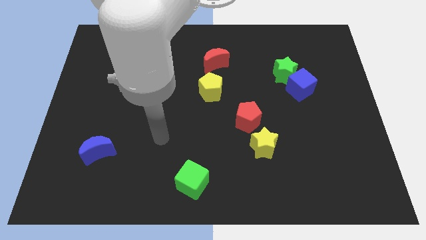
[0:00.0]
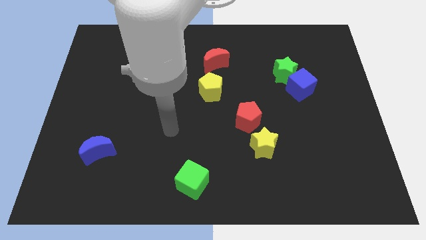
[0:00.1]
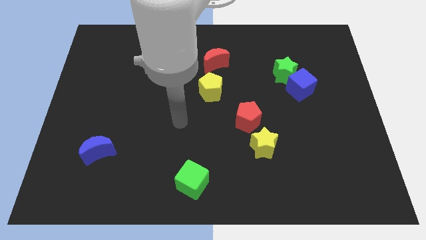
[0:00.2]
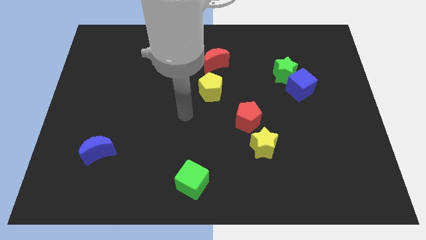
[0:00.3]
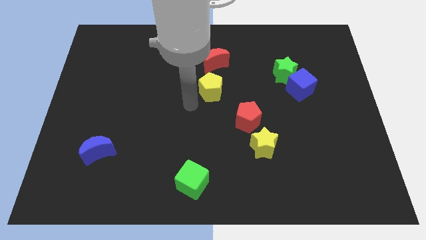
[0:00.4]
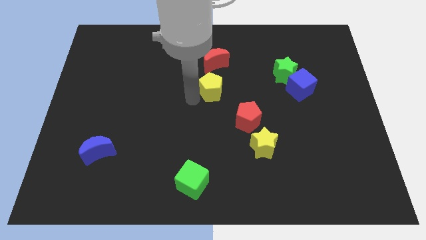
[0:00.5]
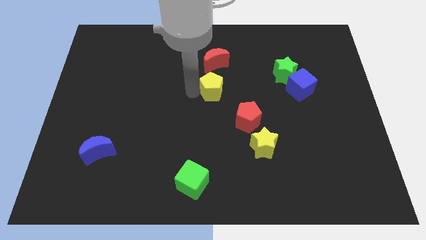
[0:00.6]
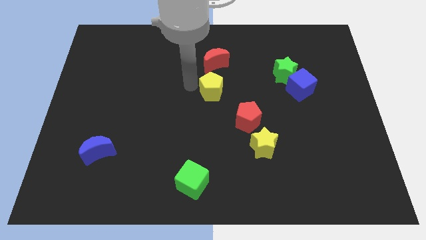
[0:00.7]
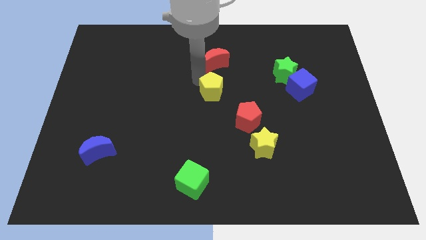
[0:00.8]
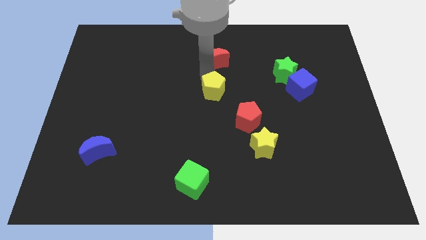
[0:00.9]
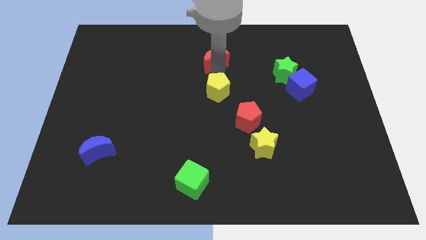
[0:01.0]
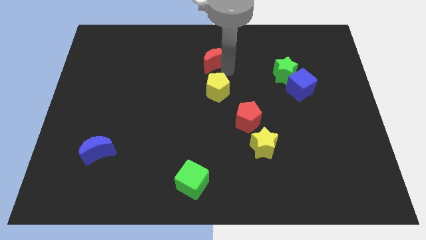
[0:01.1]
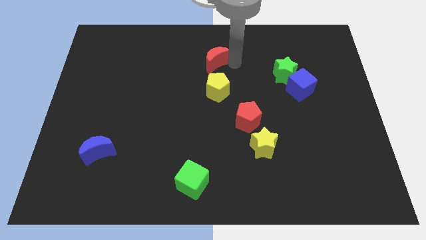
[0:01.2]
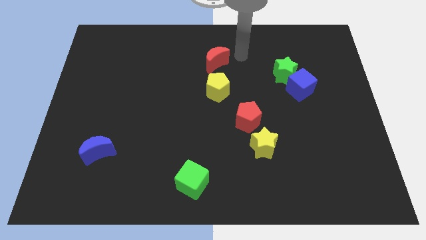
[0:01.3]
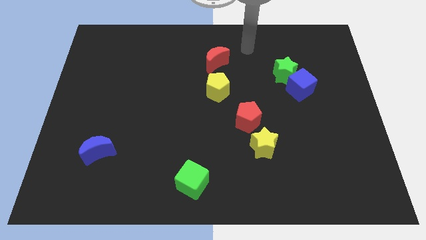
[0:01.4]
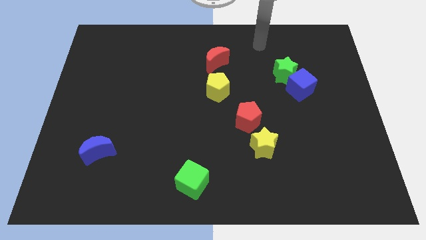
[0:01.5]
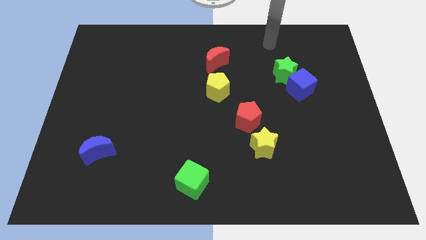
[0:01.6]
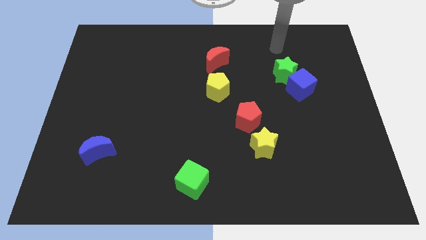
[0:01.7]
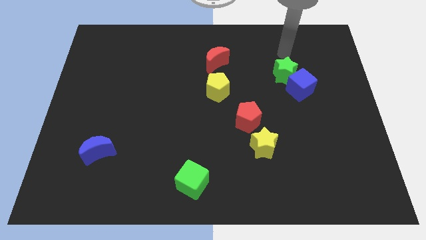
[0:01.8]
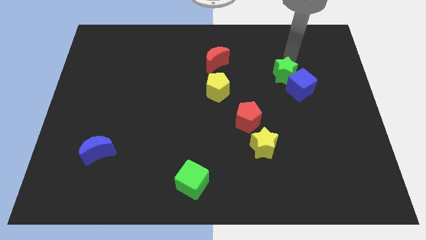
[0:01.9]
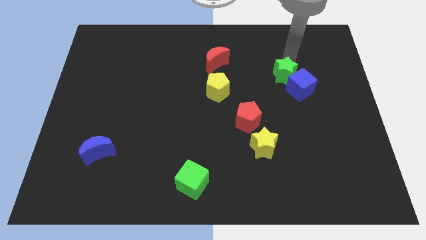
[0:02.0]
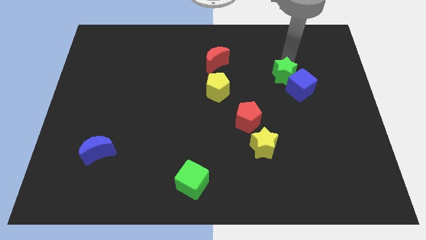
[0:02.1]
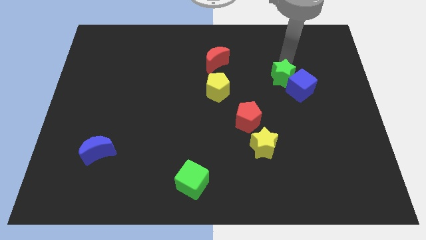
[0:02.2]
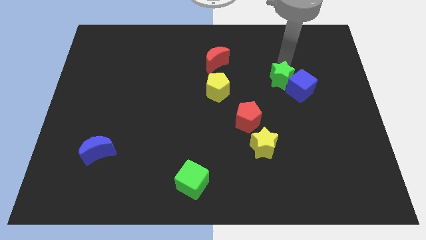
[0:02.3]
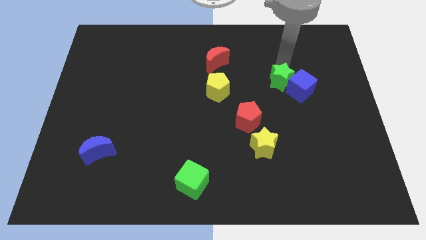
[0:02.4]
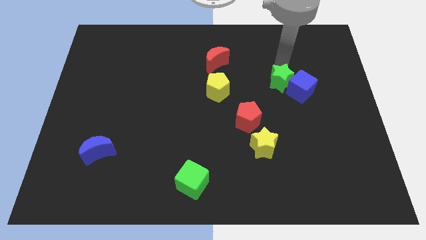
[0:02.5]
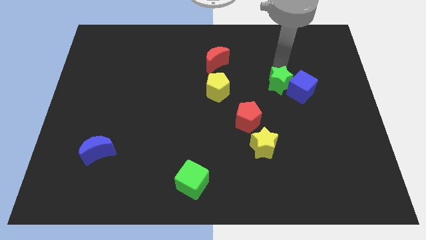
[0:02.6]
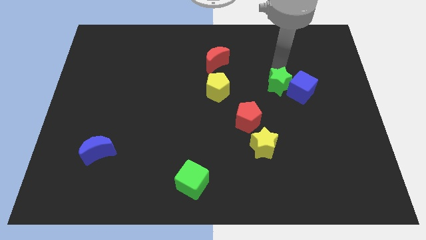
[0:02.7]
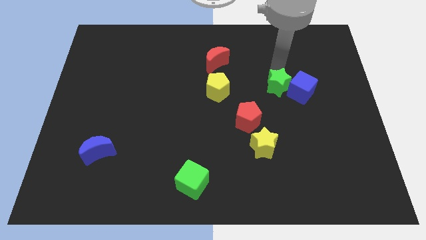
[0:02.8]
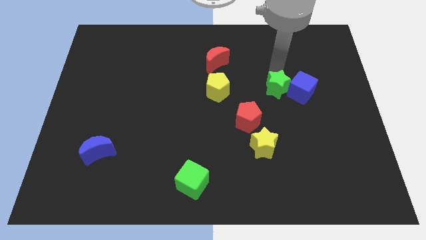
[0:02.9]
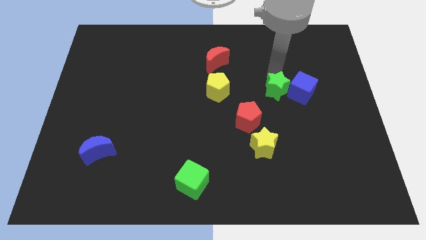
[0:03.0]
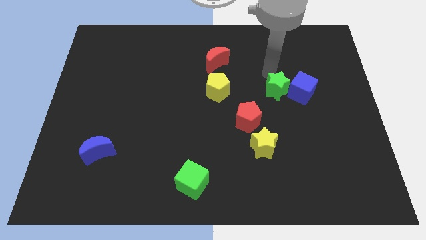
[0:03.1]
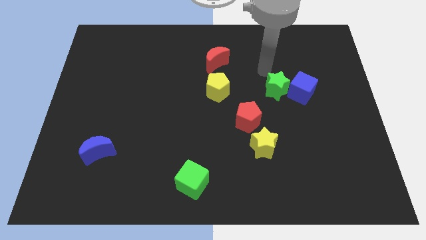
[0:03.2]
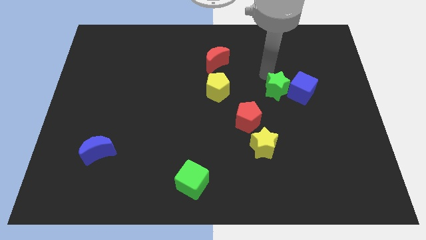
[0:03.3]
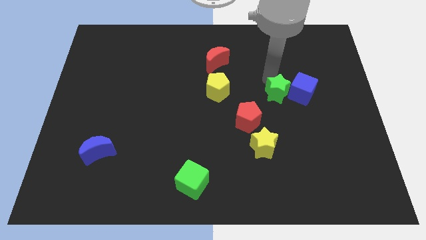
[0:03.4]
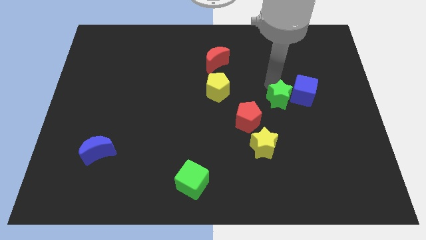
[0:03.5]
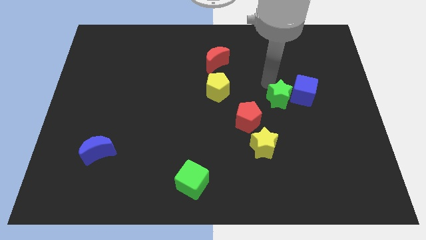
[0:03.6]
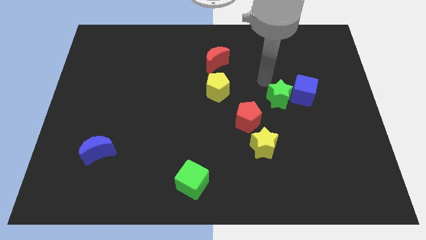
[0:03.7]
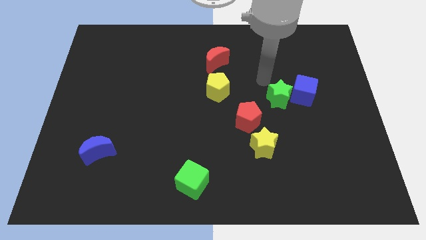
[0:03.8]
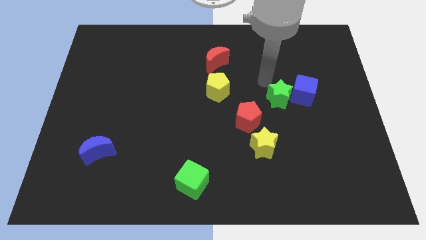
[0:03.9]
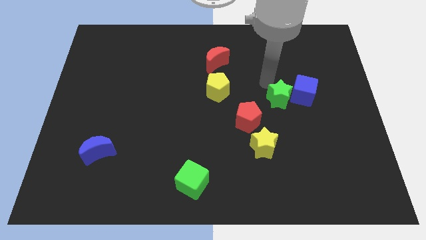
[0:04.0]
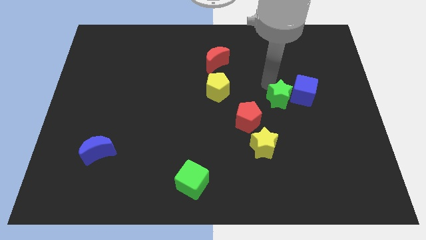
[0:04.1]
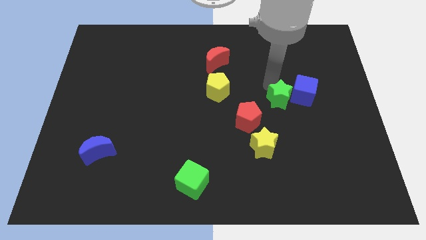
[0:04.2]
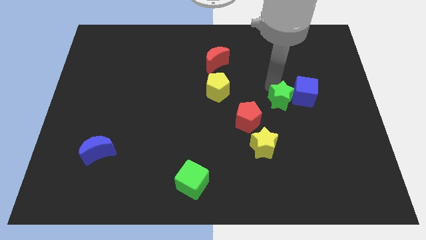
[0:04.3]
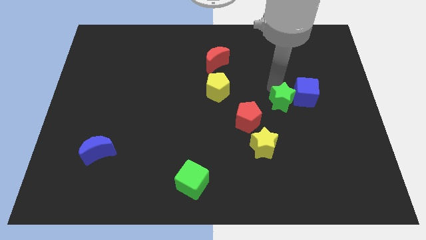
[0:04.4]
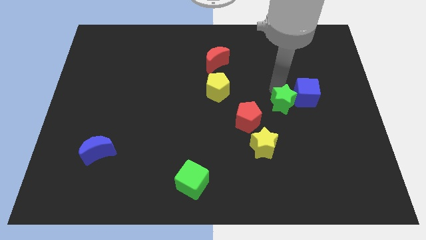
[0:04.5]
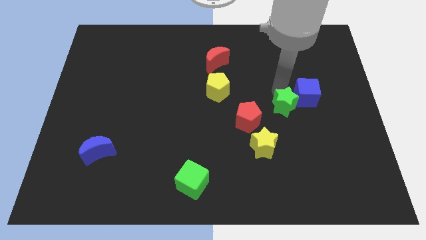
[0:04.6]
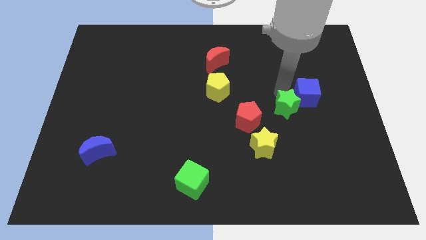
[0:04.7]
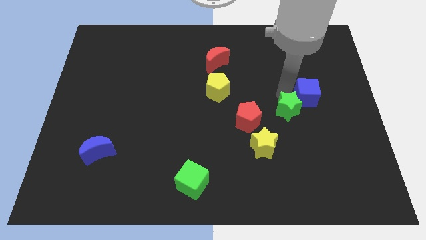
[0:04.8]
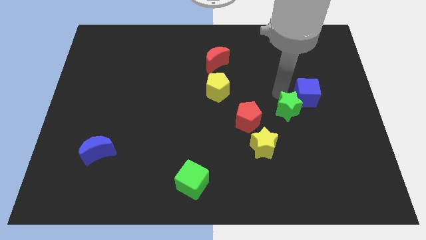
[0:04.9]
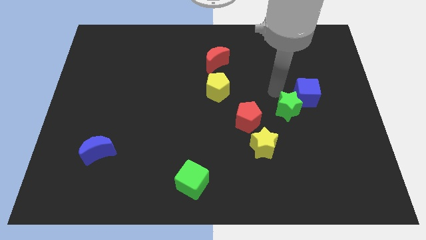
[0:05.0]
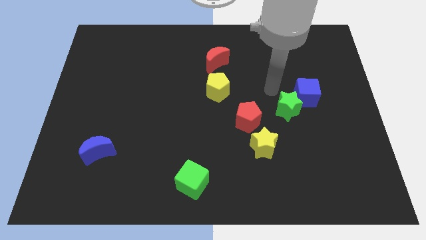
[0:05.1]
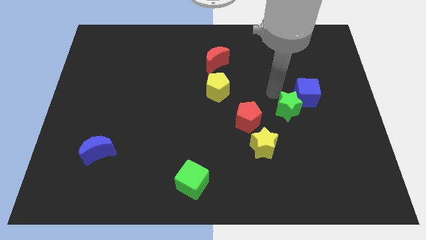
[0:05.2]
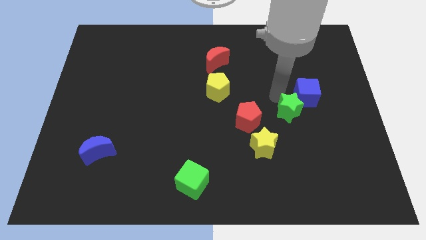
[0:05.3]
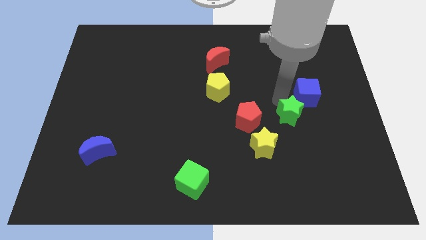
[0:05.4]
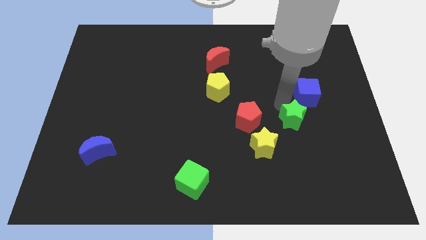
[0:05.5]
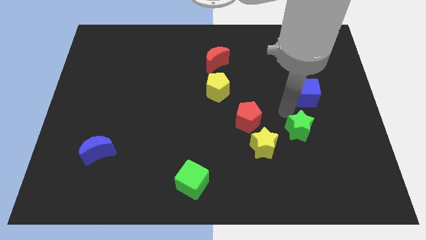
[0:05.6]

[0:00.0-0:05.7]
put the green star right of the yellow star

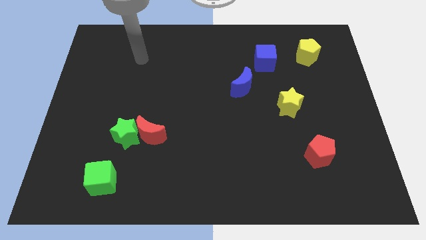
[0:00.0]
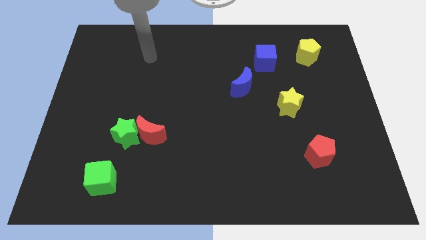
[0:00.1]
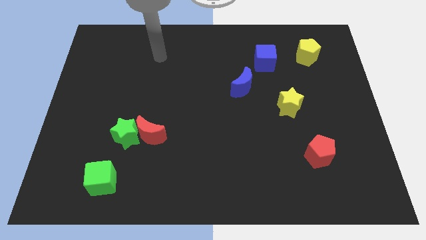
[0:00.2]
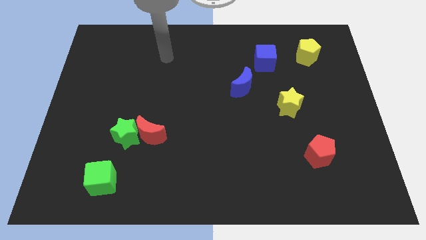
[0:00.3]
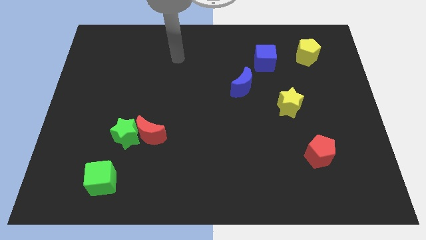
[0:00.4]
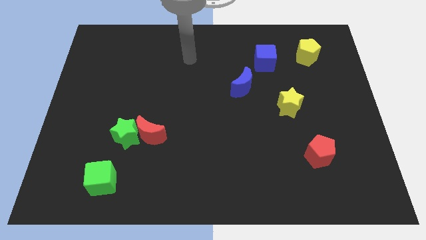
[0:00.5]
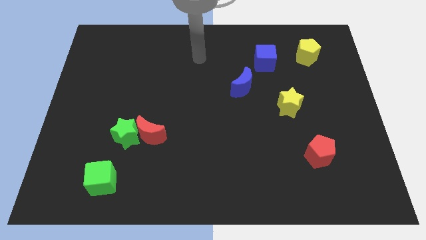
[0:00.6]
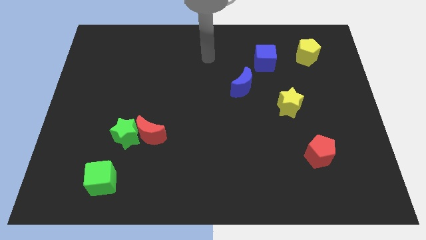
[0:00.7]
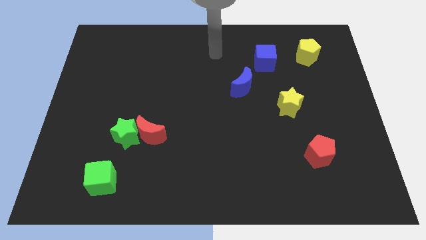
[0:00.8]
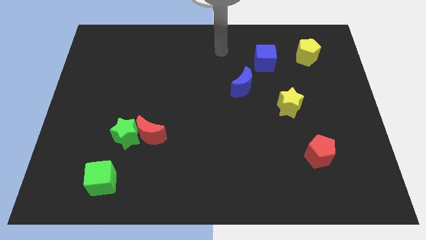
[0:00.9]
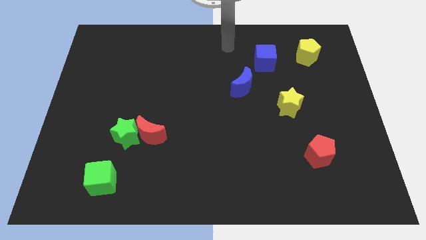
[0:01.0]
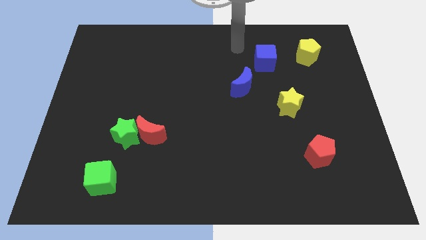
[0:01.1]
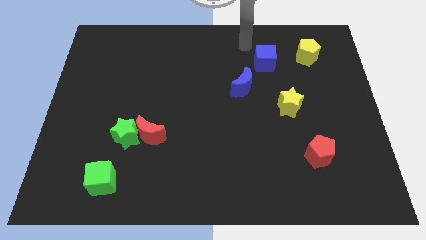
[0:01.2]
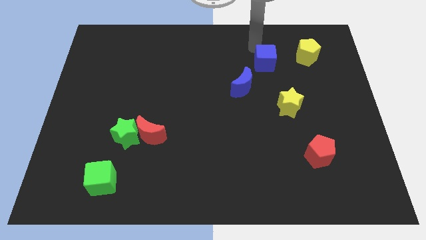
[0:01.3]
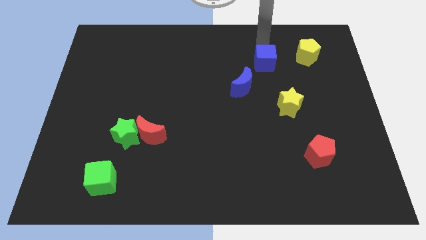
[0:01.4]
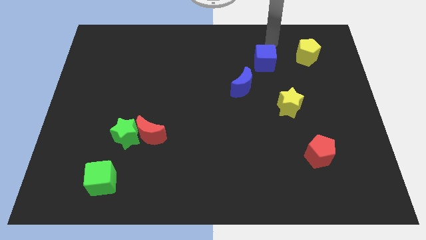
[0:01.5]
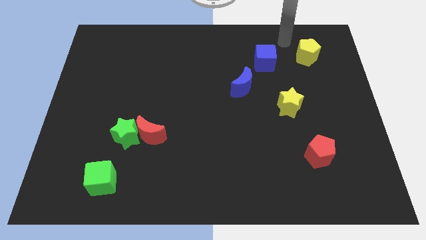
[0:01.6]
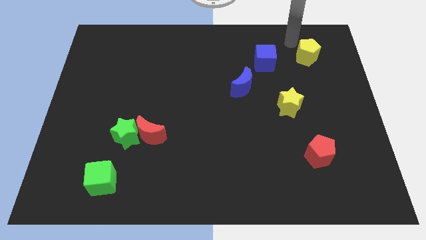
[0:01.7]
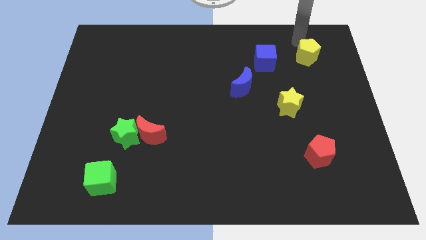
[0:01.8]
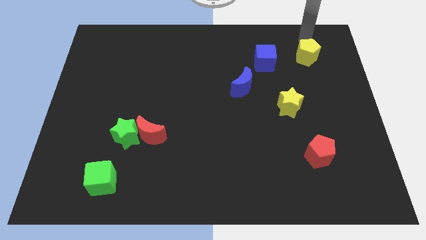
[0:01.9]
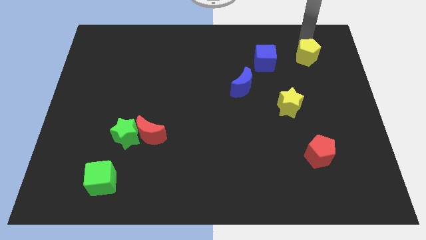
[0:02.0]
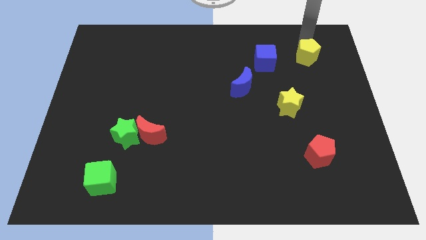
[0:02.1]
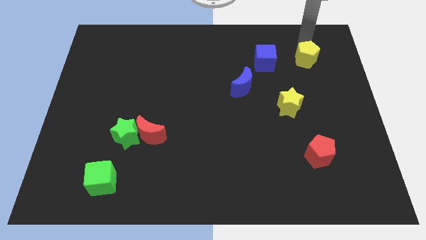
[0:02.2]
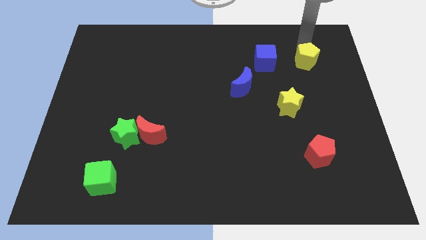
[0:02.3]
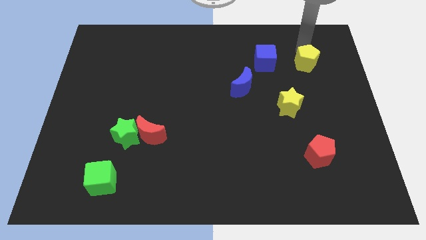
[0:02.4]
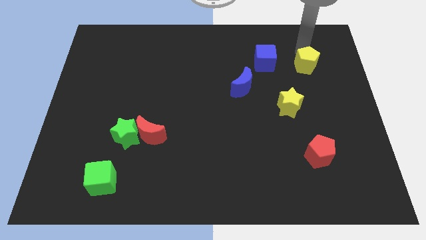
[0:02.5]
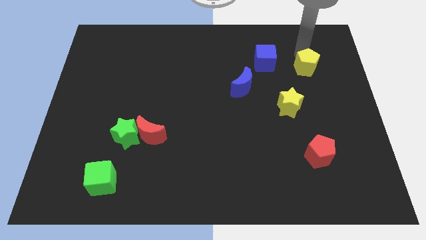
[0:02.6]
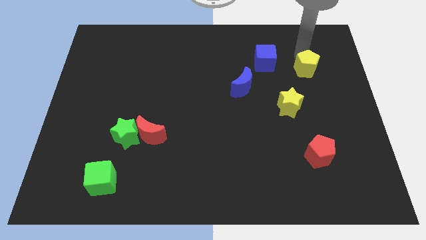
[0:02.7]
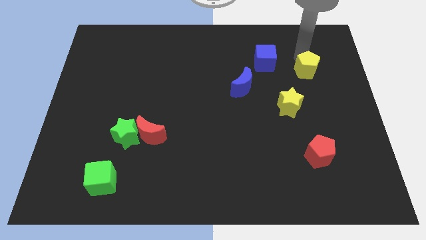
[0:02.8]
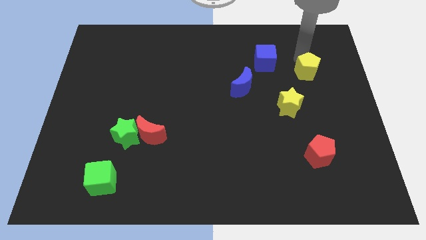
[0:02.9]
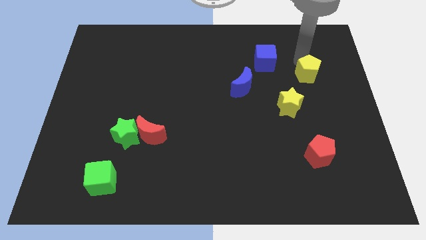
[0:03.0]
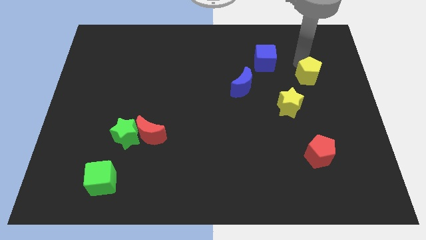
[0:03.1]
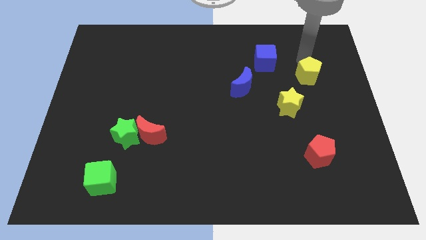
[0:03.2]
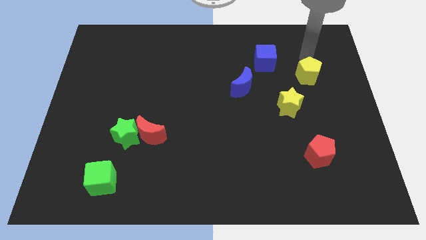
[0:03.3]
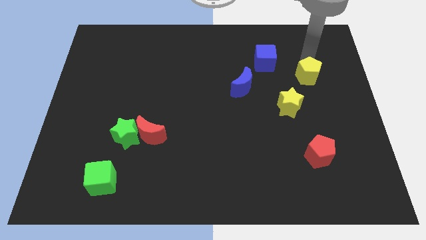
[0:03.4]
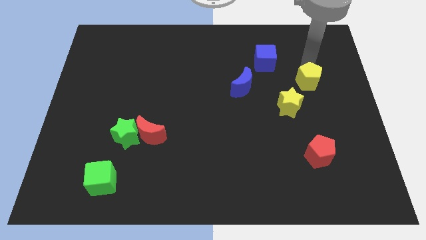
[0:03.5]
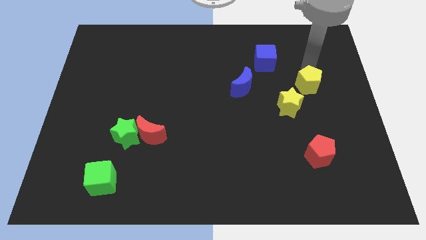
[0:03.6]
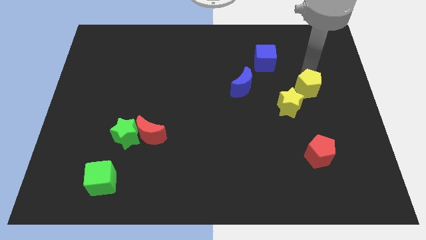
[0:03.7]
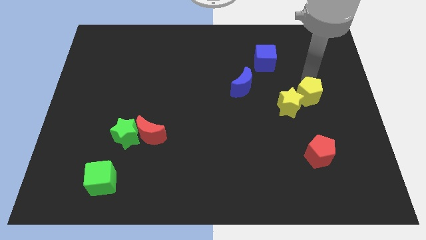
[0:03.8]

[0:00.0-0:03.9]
push the yellow pentagon to the top side of the red pentagon
